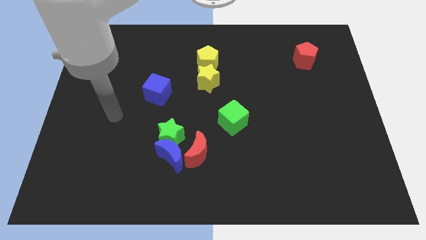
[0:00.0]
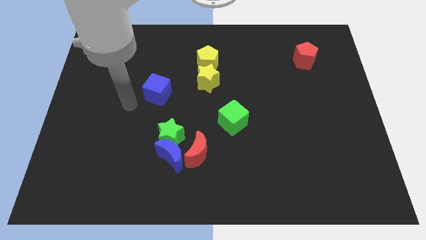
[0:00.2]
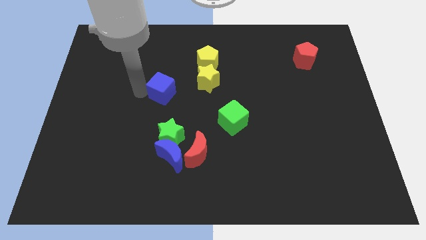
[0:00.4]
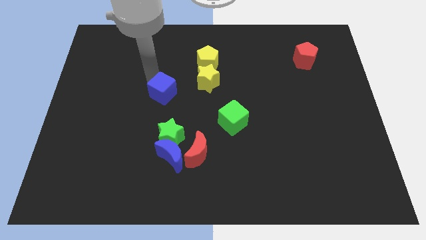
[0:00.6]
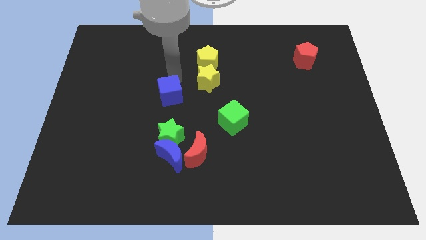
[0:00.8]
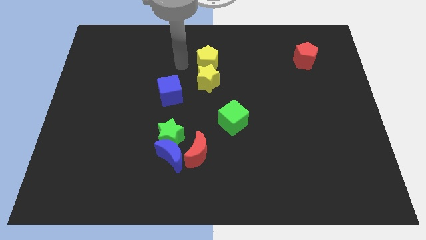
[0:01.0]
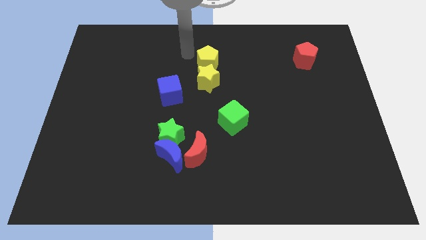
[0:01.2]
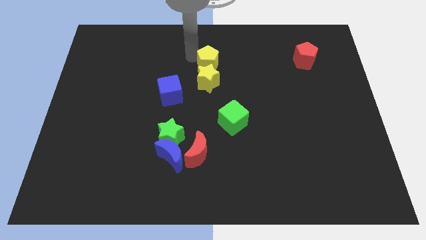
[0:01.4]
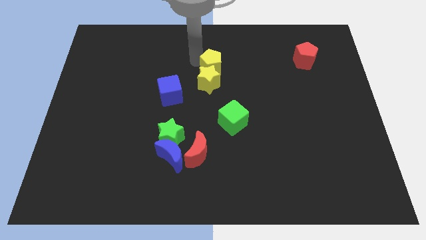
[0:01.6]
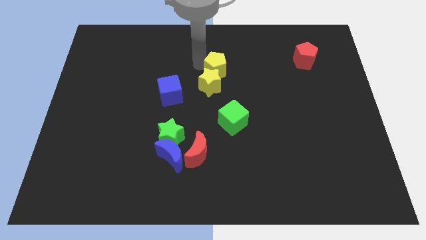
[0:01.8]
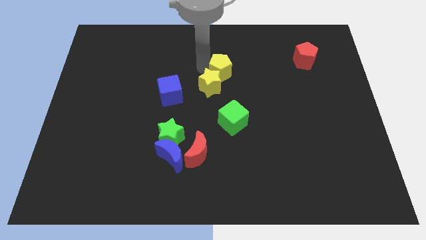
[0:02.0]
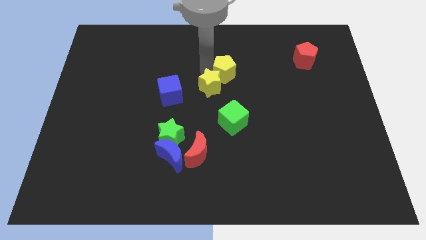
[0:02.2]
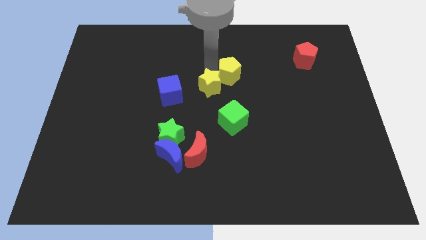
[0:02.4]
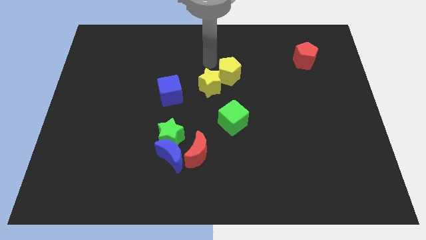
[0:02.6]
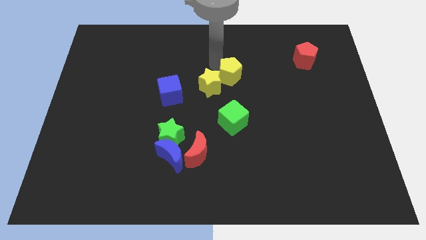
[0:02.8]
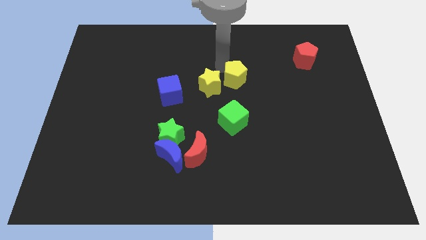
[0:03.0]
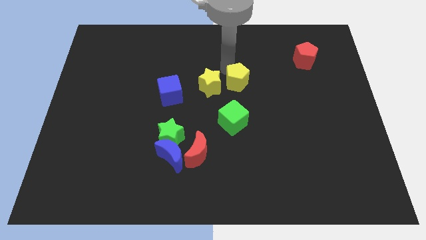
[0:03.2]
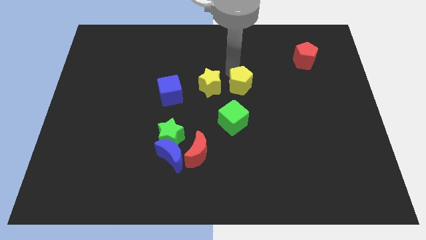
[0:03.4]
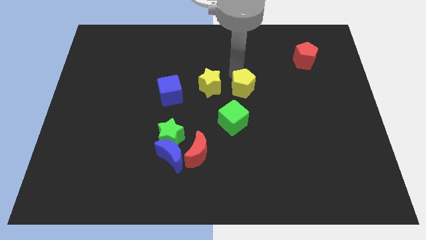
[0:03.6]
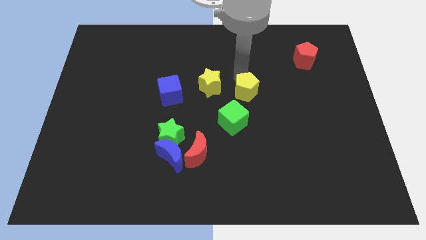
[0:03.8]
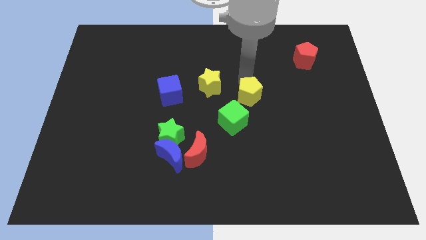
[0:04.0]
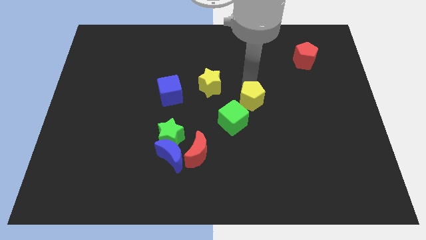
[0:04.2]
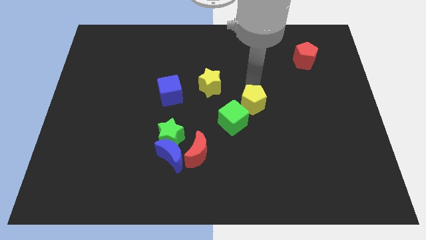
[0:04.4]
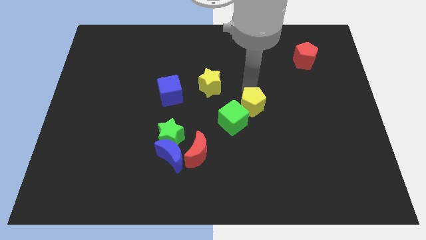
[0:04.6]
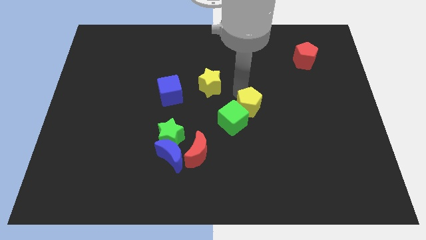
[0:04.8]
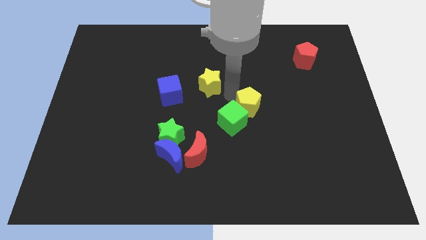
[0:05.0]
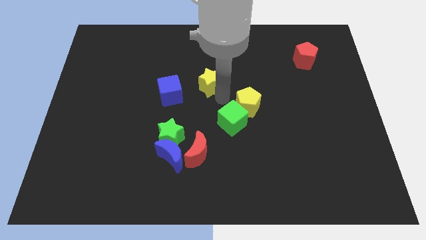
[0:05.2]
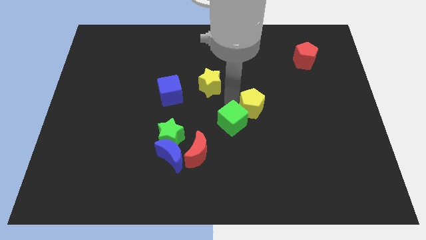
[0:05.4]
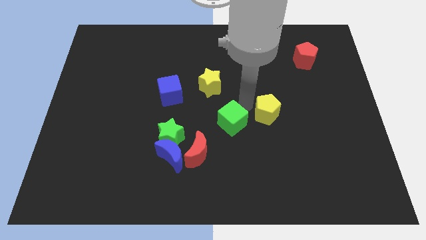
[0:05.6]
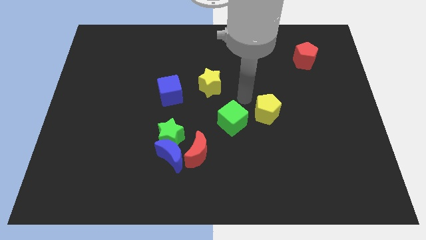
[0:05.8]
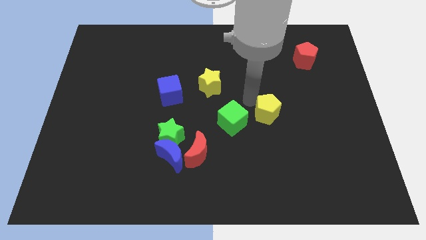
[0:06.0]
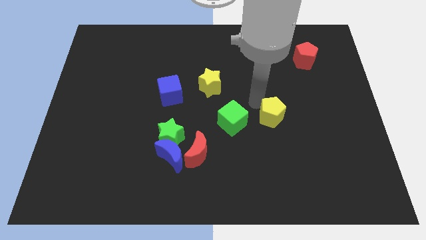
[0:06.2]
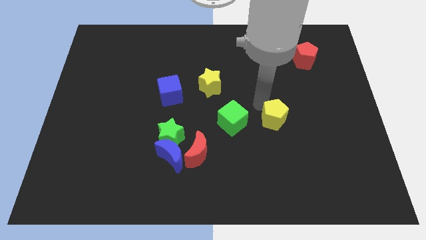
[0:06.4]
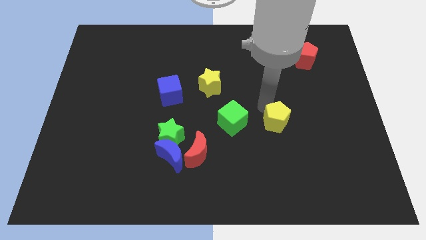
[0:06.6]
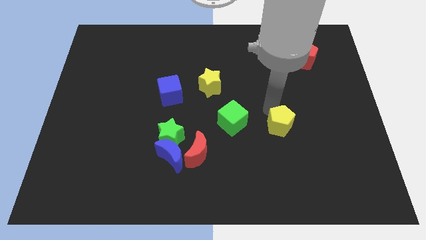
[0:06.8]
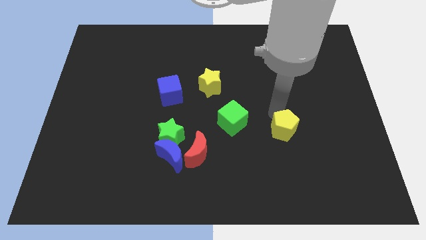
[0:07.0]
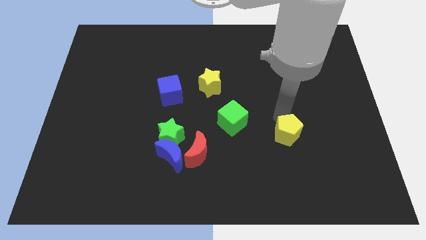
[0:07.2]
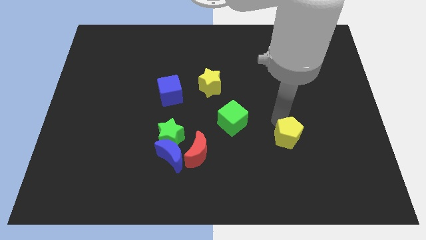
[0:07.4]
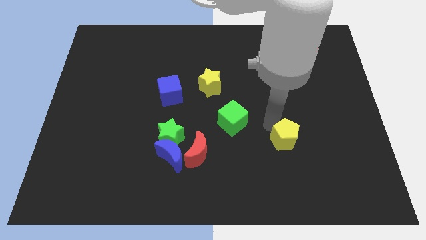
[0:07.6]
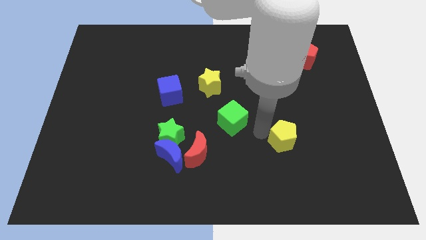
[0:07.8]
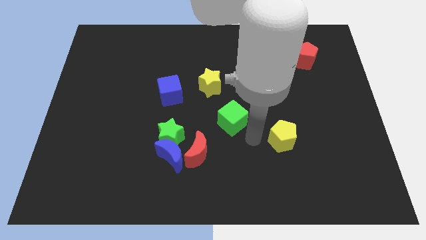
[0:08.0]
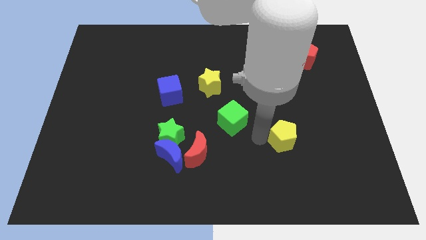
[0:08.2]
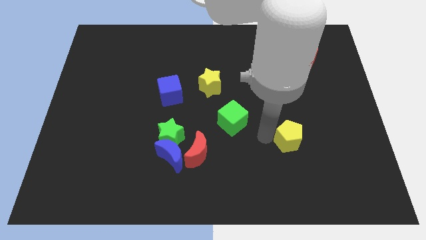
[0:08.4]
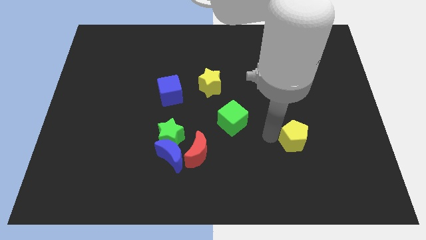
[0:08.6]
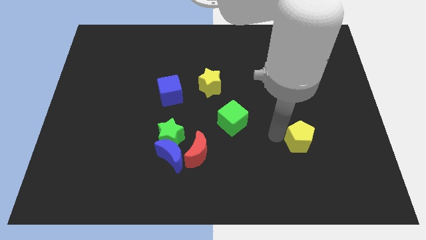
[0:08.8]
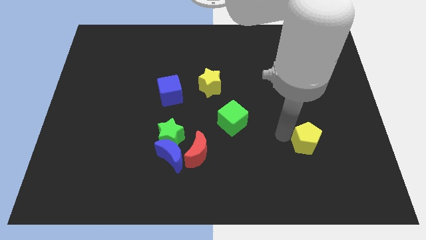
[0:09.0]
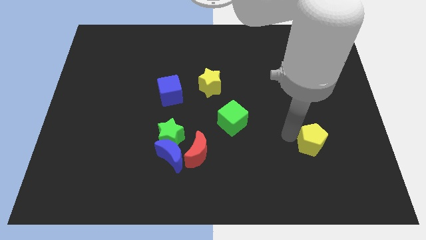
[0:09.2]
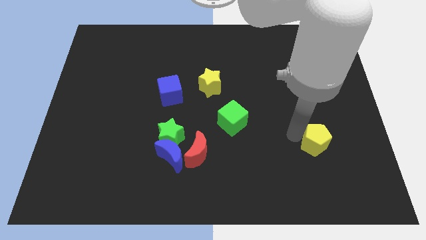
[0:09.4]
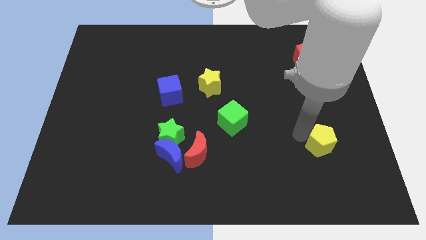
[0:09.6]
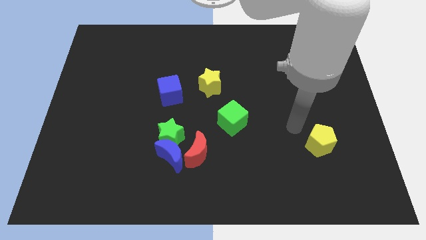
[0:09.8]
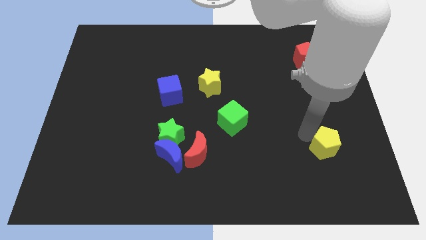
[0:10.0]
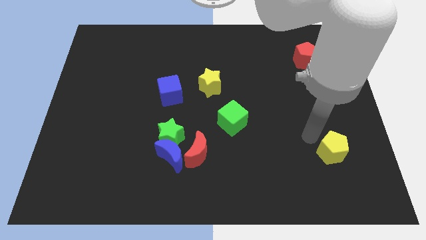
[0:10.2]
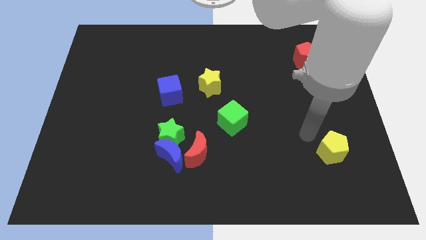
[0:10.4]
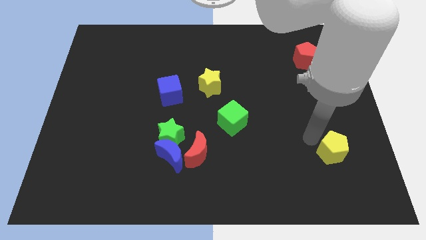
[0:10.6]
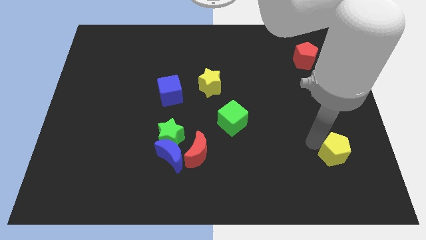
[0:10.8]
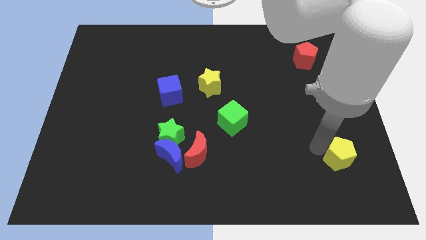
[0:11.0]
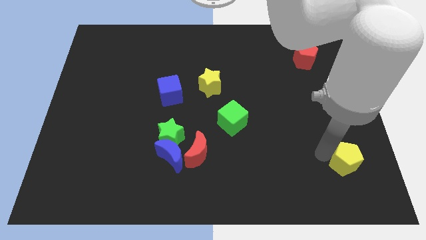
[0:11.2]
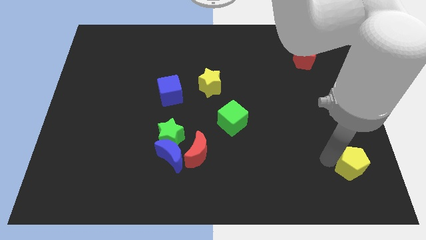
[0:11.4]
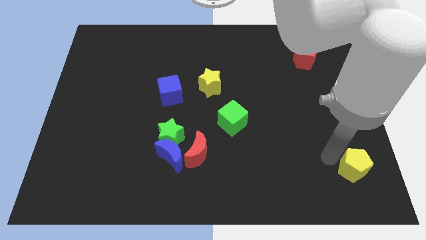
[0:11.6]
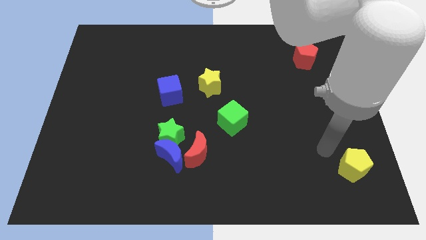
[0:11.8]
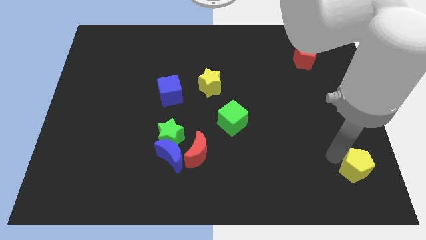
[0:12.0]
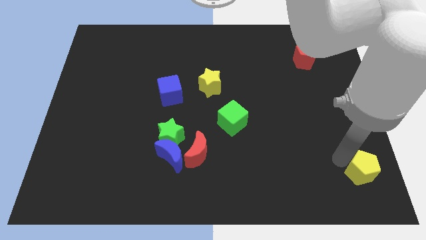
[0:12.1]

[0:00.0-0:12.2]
put the yellow pentagon to the lower right corner
